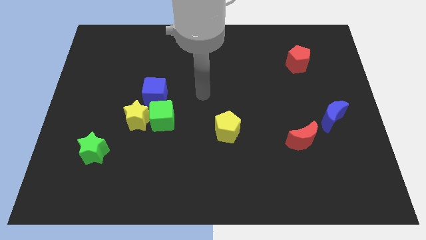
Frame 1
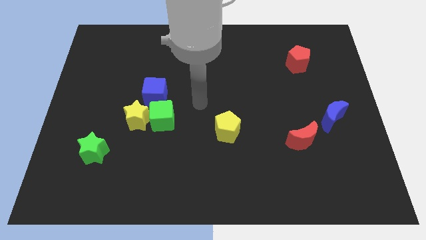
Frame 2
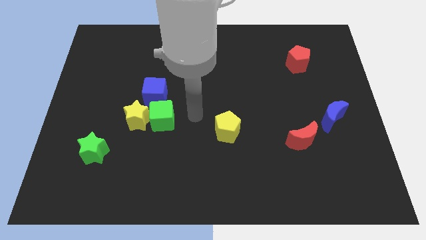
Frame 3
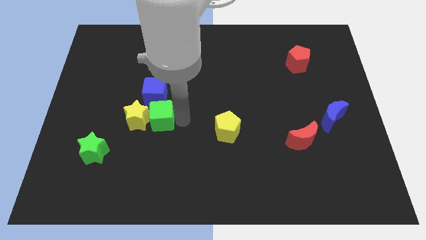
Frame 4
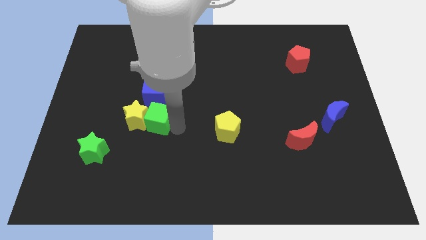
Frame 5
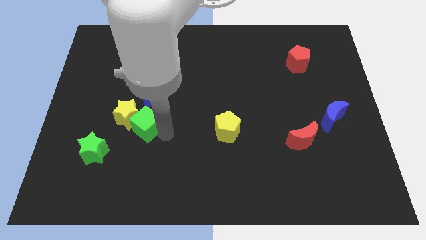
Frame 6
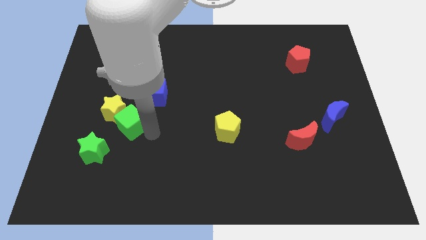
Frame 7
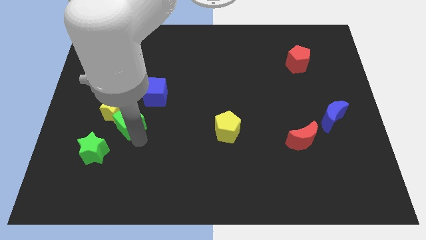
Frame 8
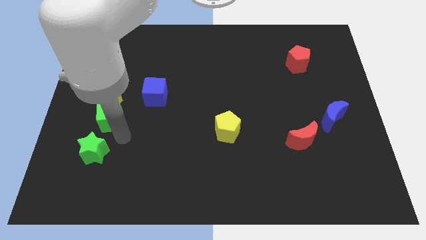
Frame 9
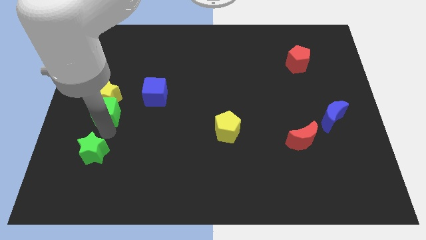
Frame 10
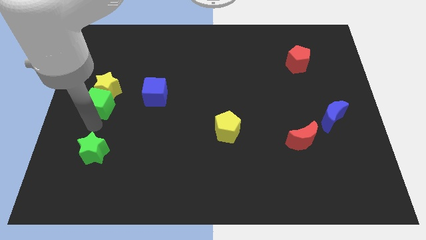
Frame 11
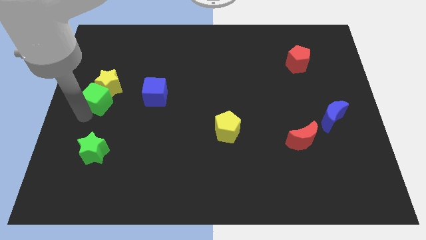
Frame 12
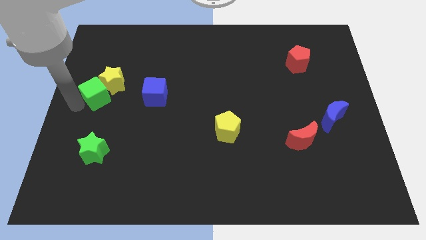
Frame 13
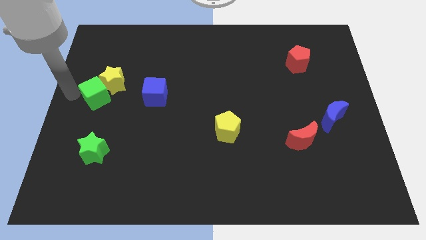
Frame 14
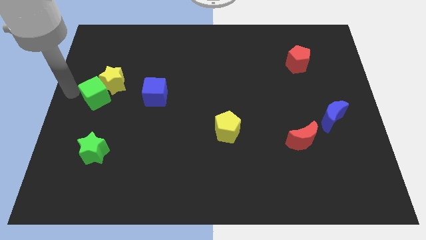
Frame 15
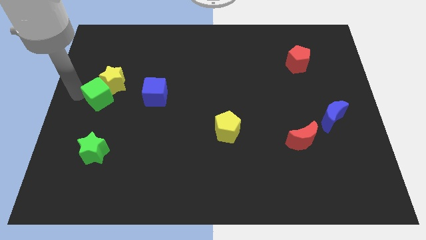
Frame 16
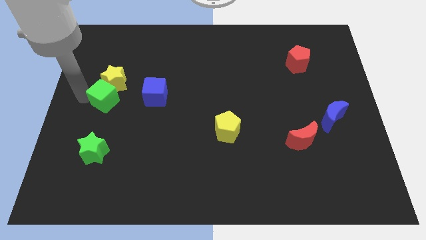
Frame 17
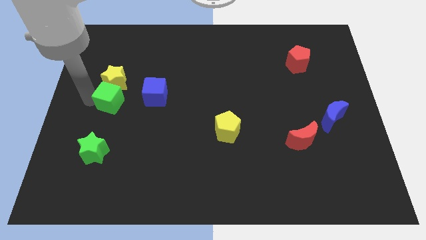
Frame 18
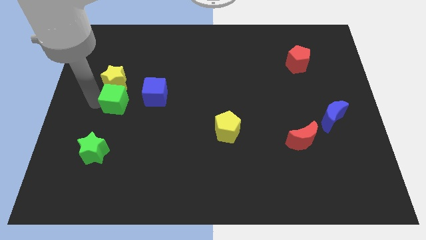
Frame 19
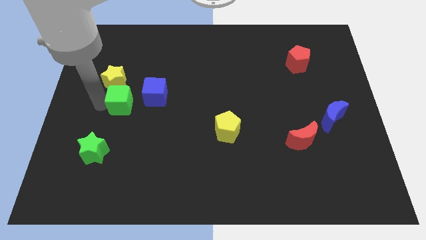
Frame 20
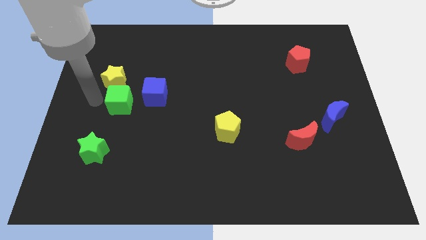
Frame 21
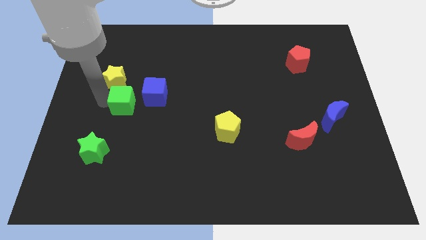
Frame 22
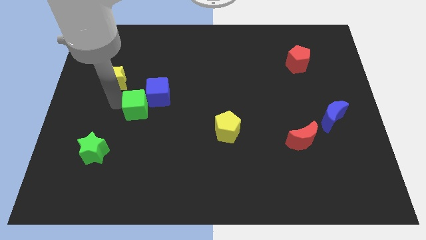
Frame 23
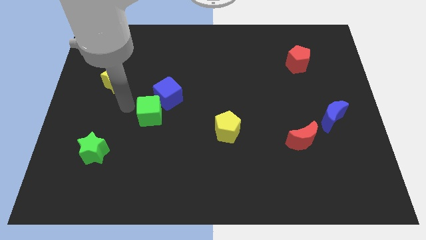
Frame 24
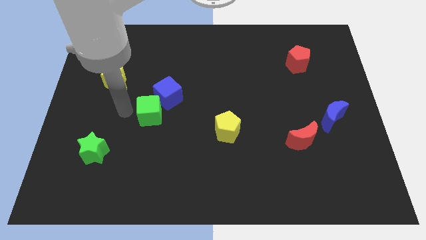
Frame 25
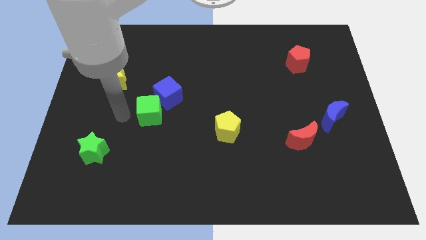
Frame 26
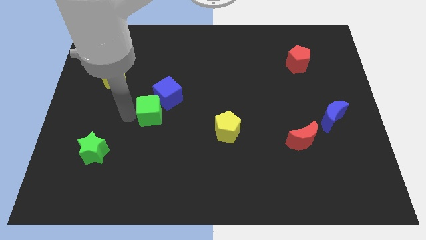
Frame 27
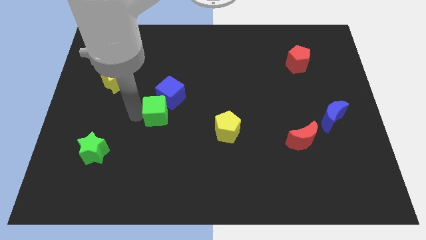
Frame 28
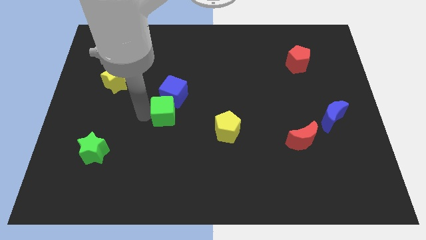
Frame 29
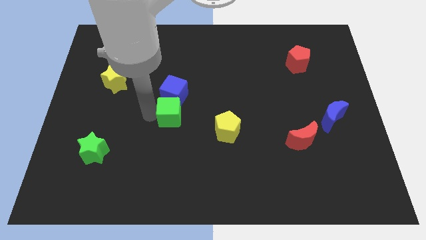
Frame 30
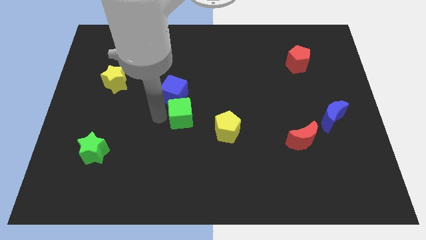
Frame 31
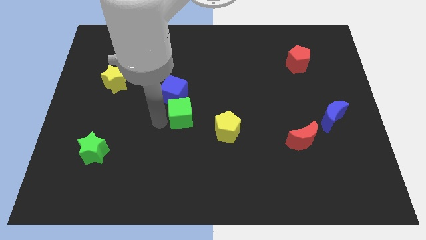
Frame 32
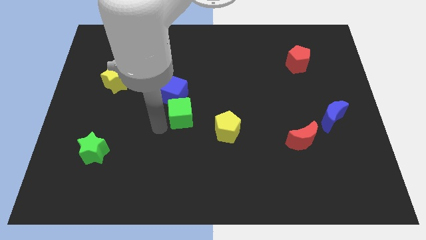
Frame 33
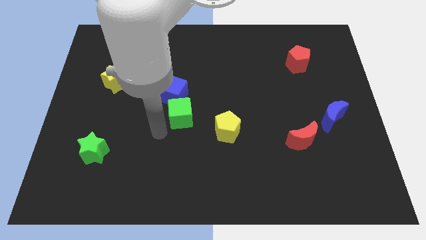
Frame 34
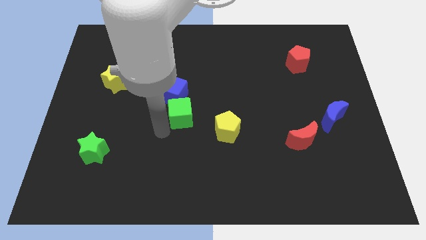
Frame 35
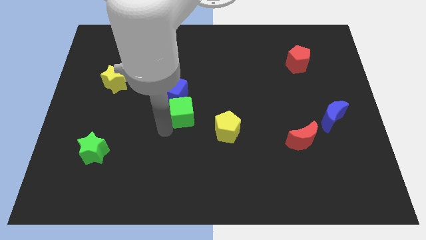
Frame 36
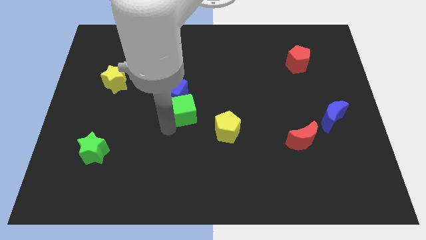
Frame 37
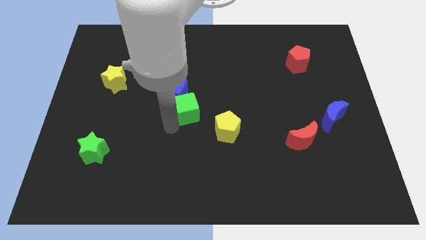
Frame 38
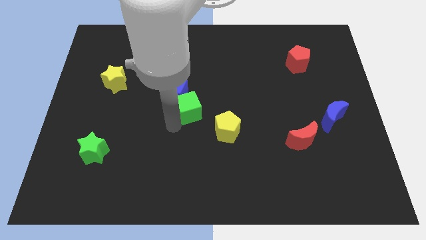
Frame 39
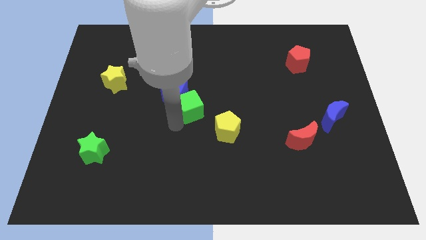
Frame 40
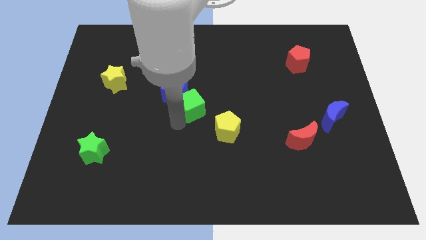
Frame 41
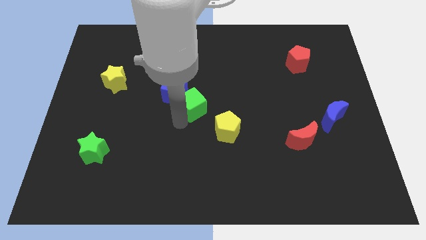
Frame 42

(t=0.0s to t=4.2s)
slightly slide the green cube upwards and to the right diagonally

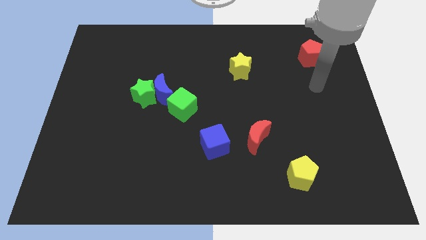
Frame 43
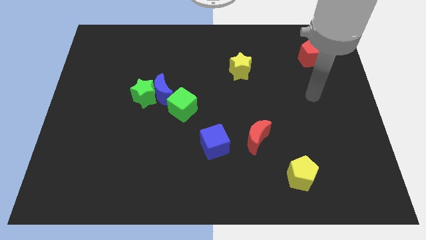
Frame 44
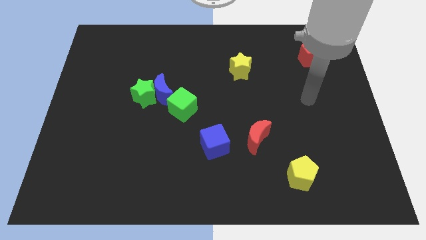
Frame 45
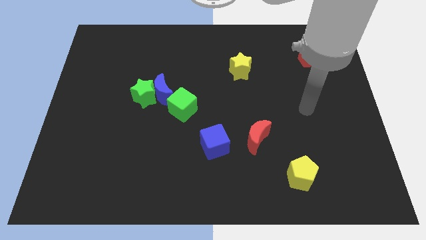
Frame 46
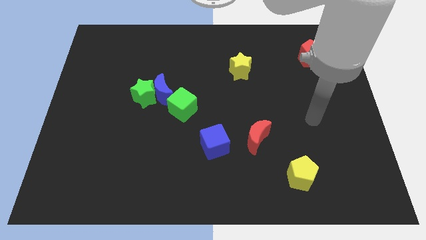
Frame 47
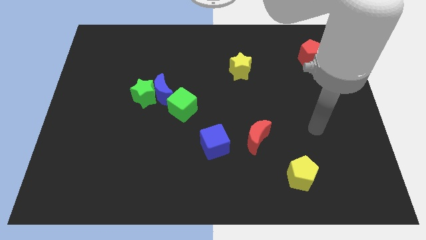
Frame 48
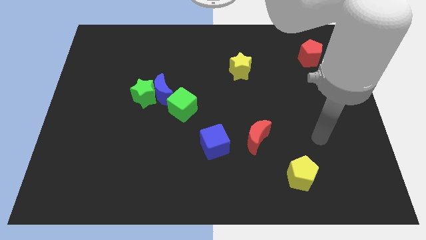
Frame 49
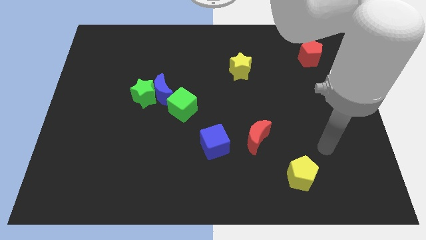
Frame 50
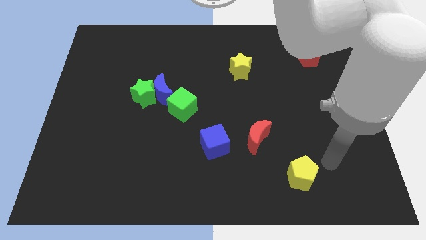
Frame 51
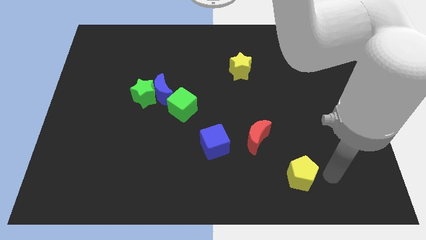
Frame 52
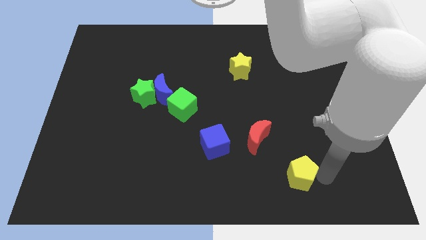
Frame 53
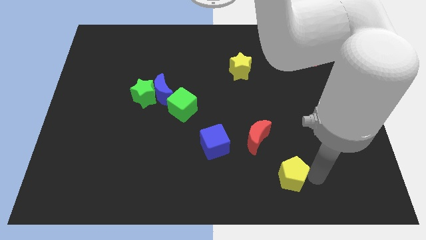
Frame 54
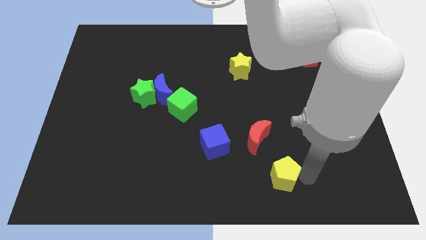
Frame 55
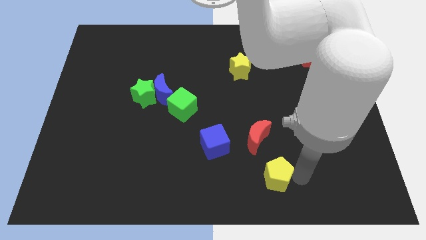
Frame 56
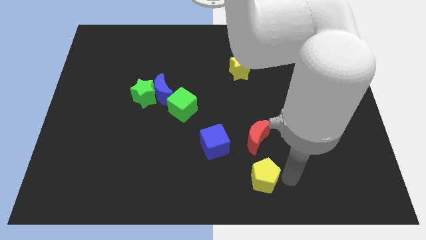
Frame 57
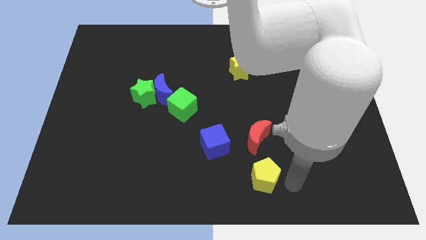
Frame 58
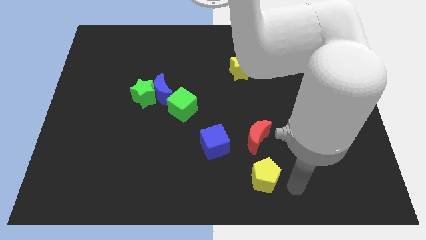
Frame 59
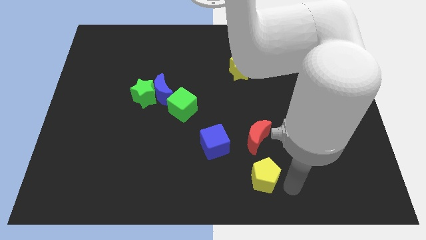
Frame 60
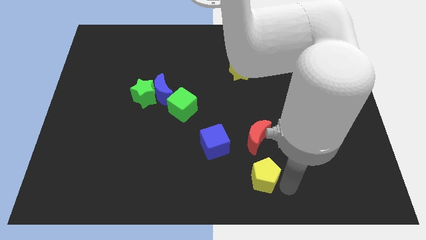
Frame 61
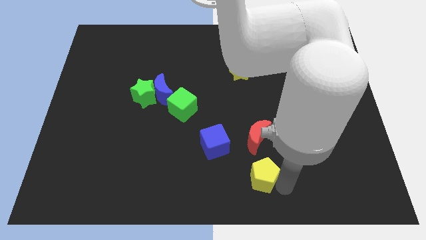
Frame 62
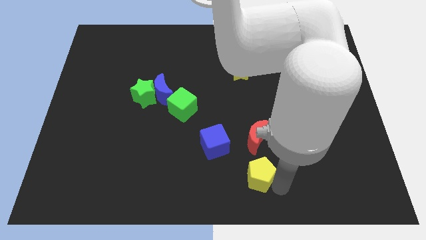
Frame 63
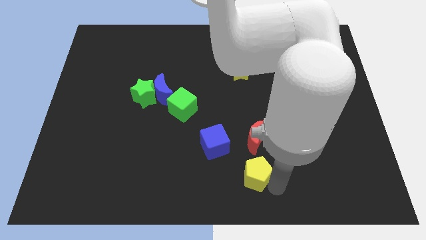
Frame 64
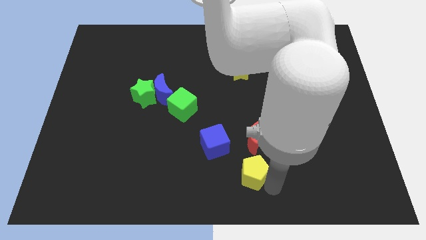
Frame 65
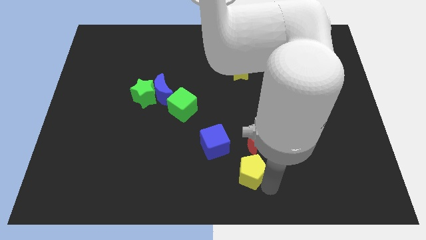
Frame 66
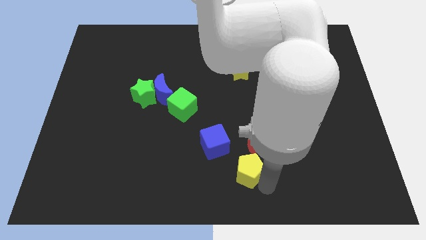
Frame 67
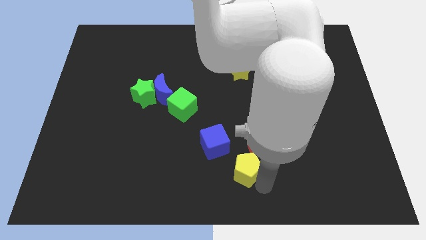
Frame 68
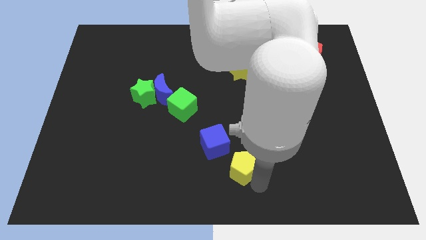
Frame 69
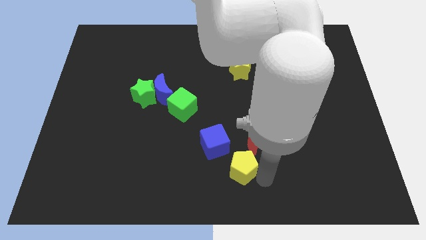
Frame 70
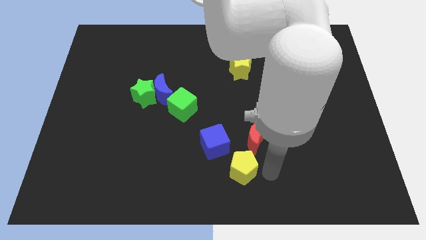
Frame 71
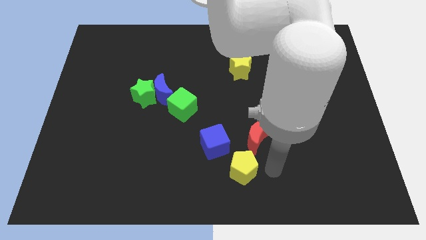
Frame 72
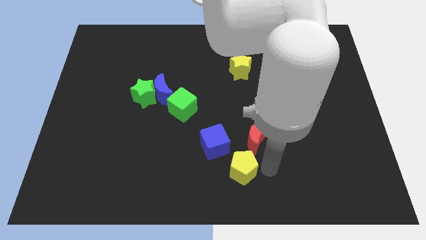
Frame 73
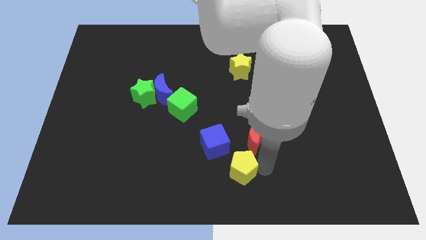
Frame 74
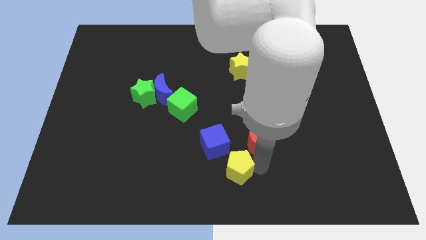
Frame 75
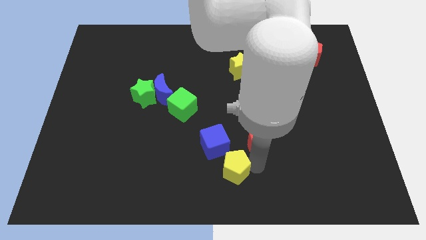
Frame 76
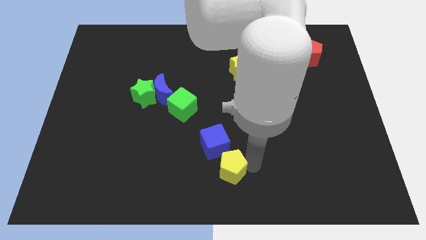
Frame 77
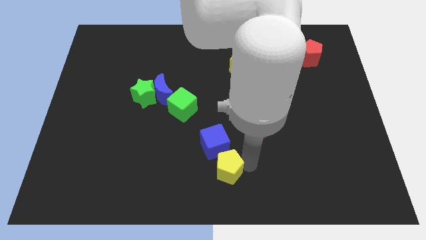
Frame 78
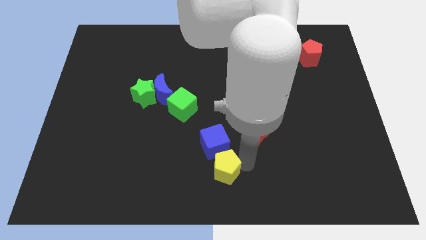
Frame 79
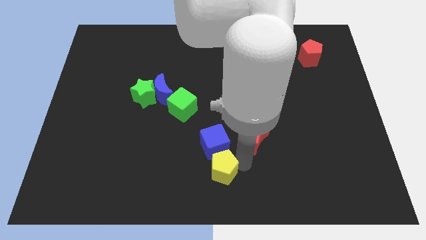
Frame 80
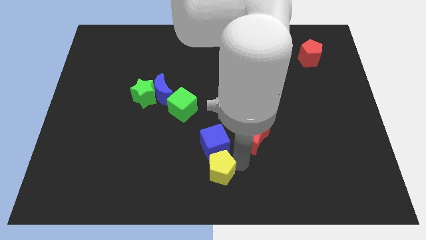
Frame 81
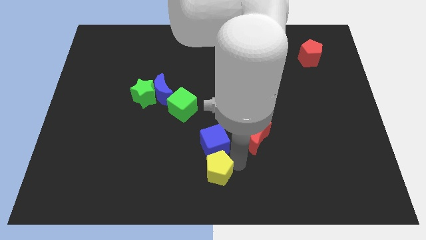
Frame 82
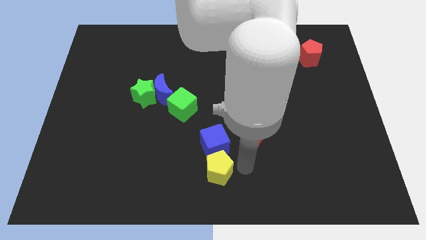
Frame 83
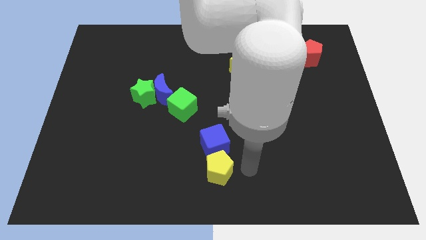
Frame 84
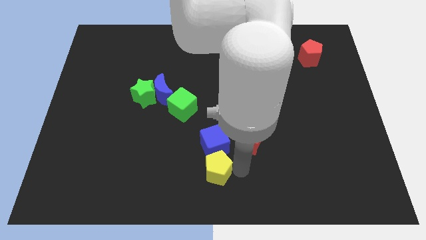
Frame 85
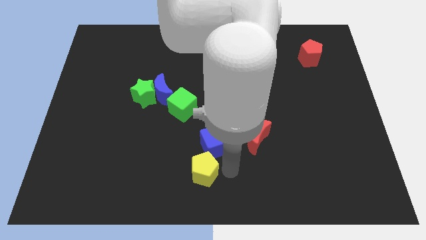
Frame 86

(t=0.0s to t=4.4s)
slide the yellow pentagon left

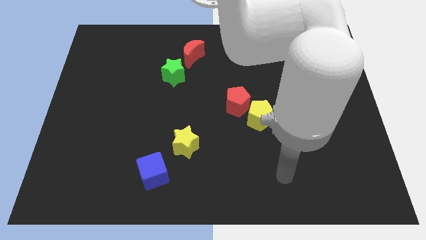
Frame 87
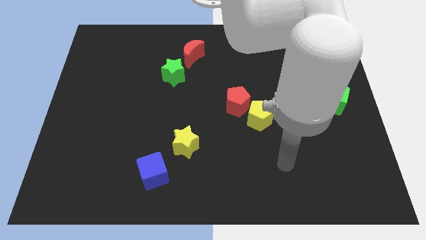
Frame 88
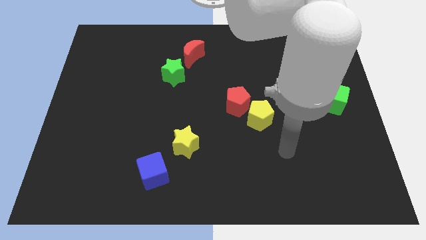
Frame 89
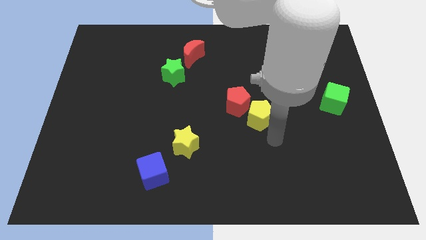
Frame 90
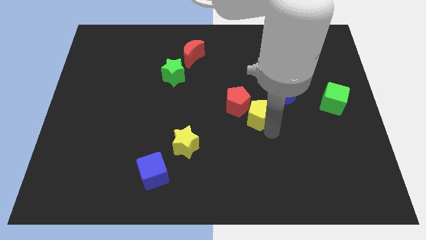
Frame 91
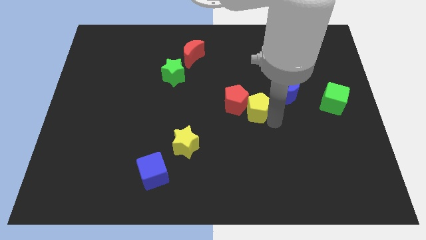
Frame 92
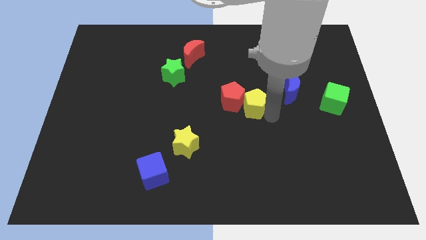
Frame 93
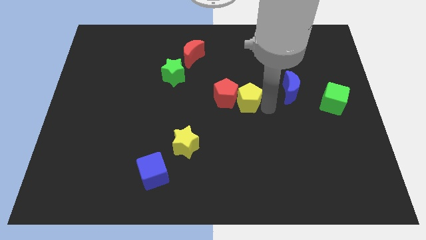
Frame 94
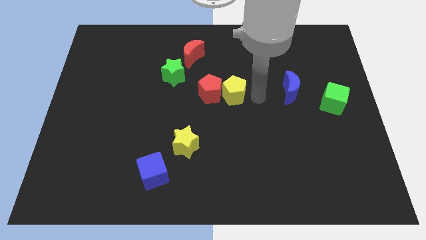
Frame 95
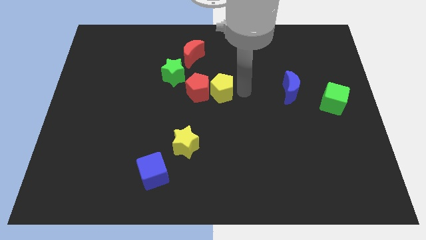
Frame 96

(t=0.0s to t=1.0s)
slightly move the red pentagon left
